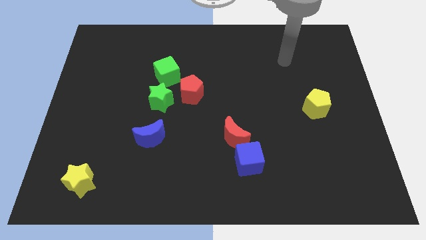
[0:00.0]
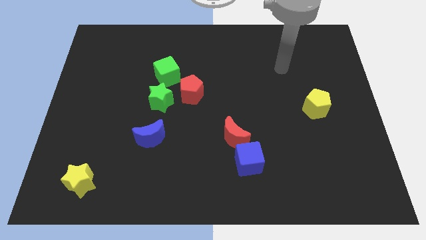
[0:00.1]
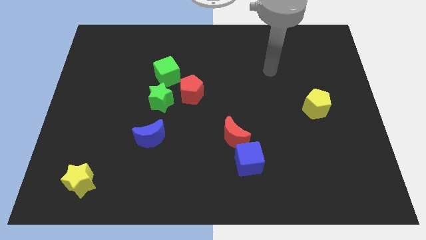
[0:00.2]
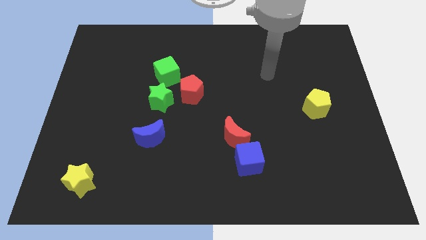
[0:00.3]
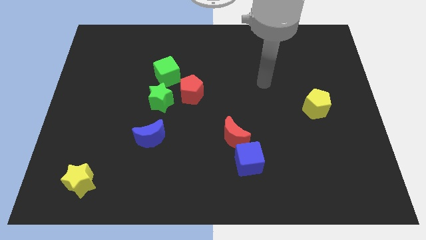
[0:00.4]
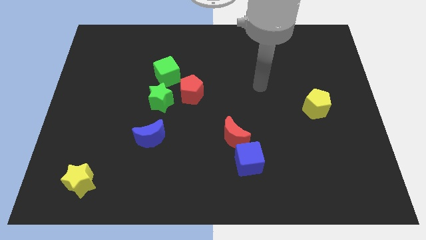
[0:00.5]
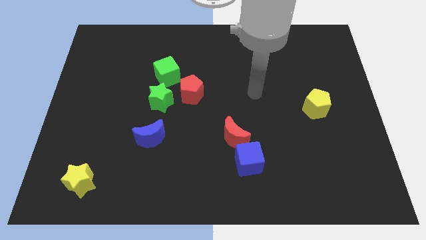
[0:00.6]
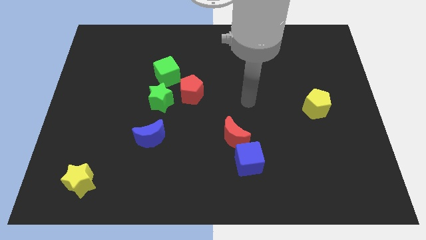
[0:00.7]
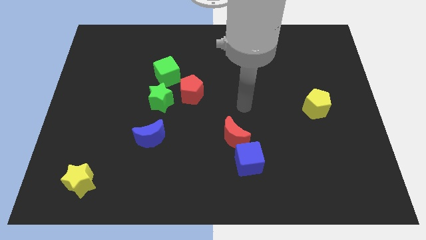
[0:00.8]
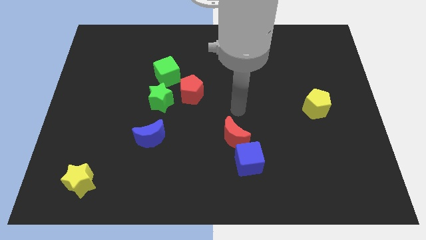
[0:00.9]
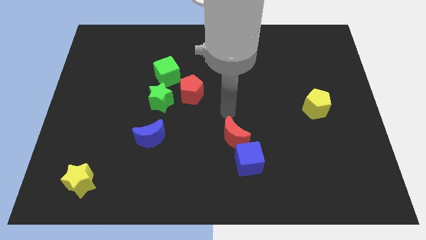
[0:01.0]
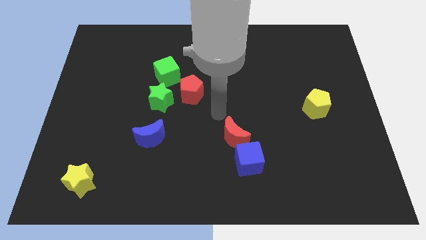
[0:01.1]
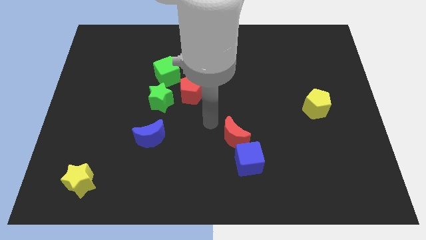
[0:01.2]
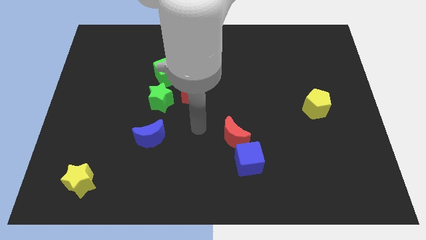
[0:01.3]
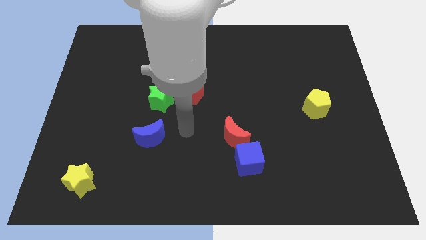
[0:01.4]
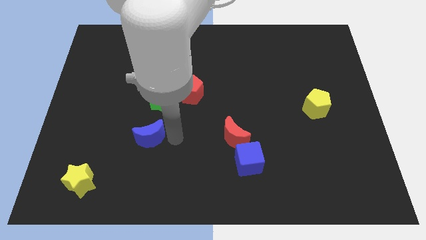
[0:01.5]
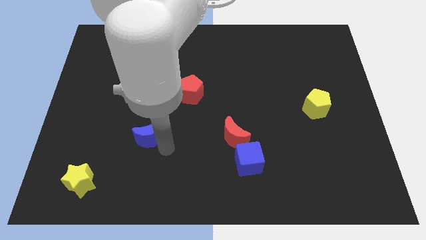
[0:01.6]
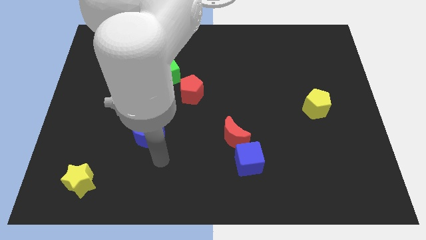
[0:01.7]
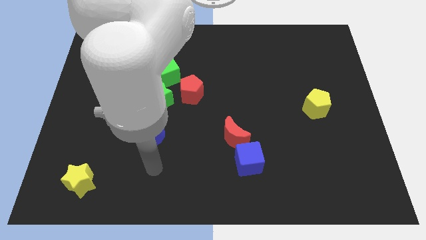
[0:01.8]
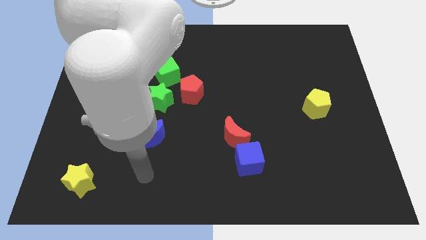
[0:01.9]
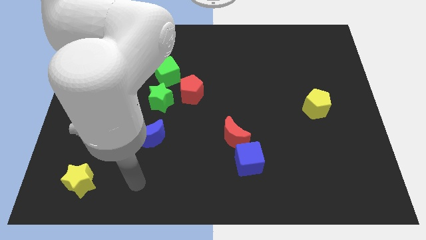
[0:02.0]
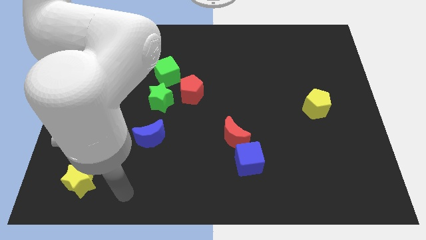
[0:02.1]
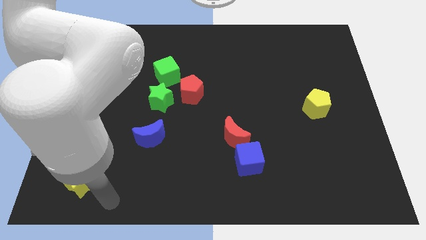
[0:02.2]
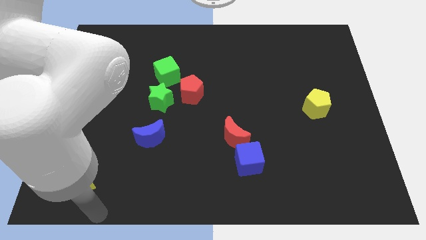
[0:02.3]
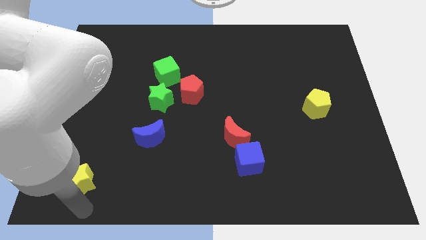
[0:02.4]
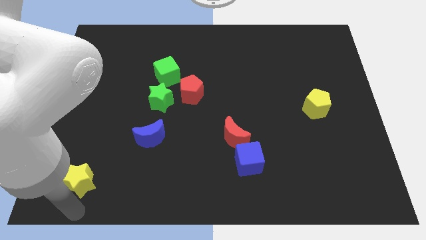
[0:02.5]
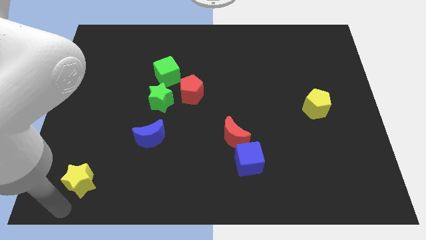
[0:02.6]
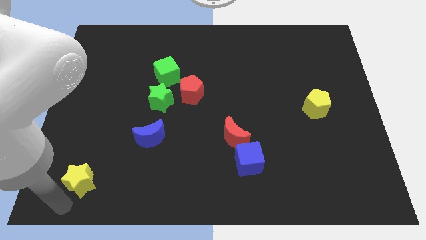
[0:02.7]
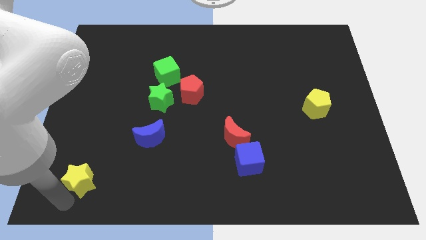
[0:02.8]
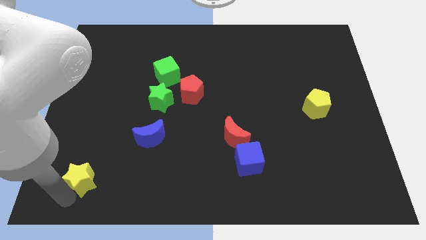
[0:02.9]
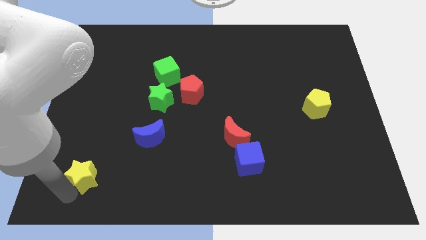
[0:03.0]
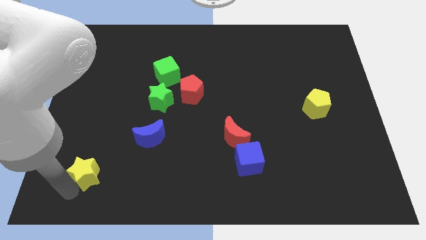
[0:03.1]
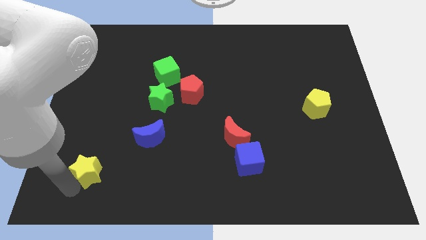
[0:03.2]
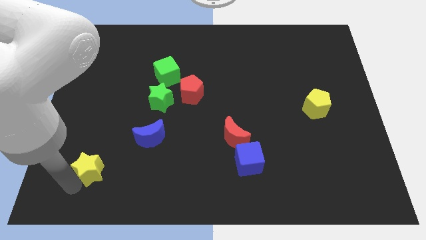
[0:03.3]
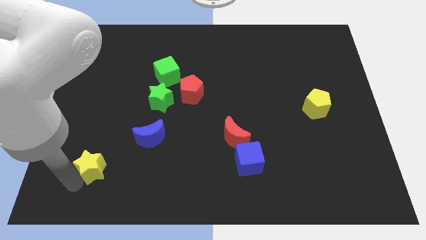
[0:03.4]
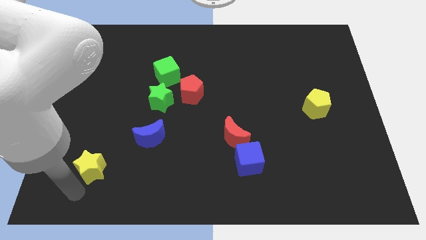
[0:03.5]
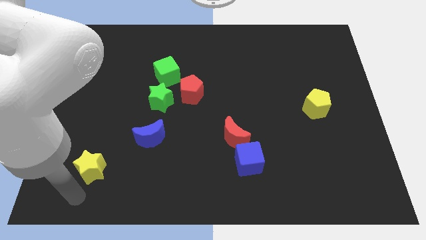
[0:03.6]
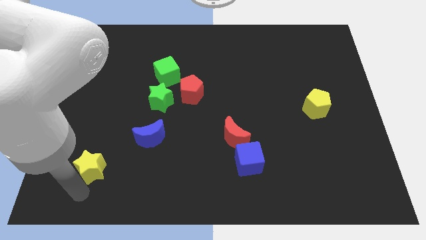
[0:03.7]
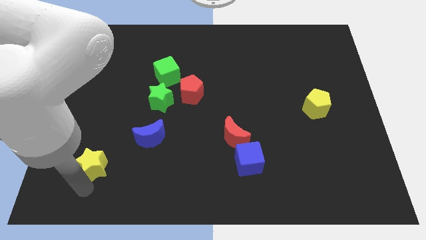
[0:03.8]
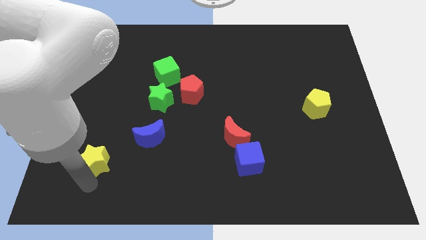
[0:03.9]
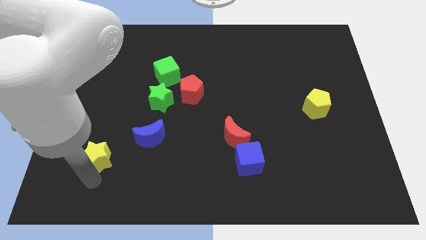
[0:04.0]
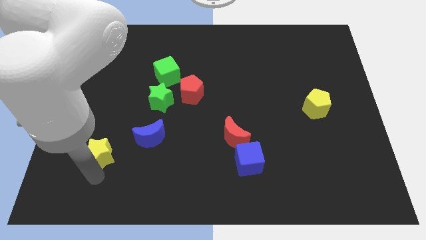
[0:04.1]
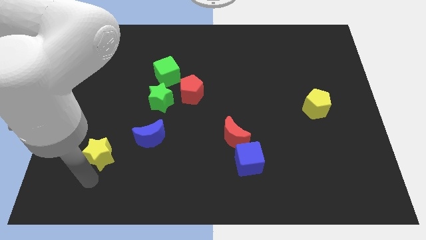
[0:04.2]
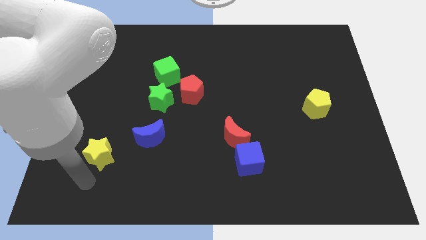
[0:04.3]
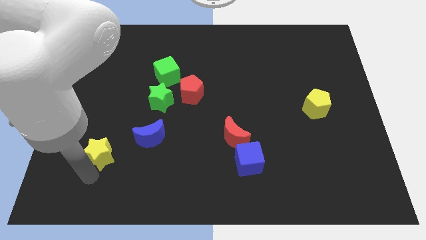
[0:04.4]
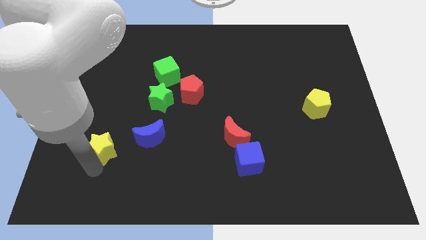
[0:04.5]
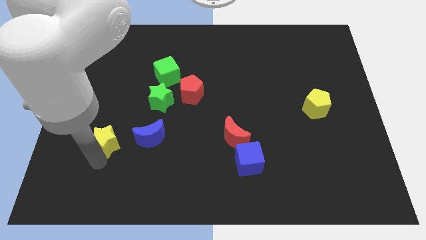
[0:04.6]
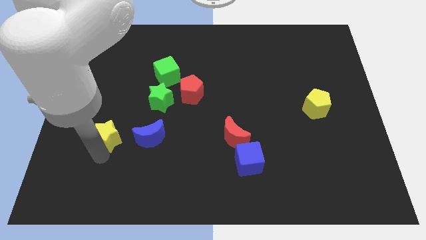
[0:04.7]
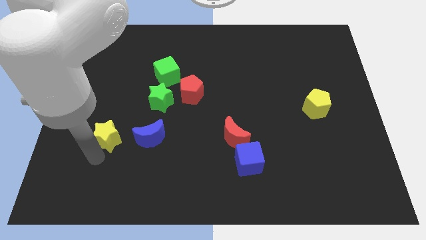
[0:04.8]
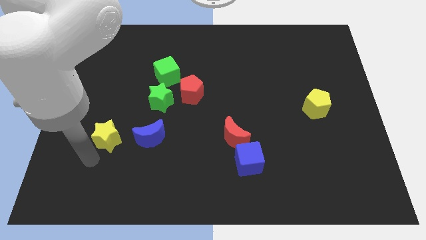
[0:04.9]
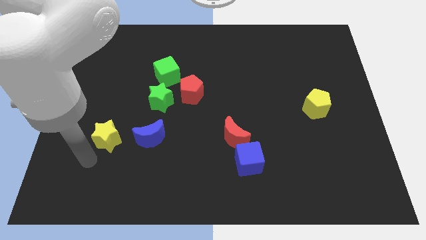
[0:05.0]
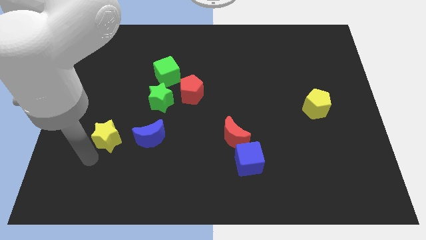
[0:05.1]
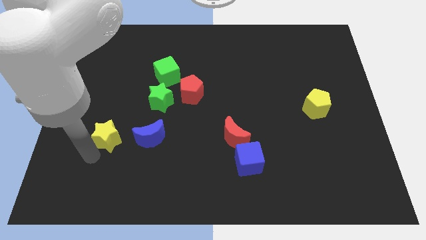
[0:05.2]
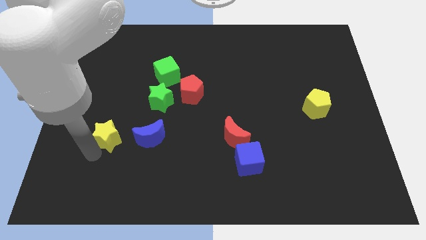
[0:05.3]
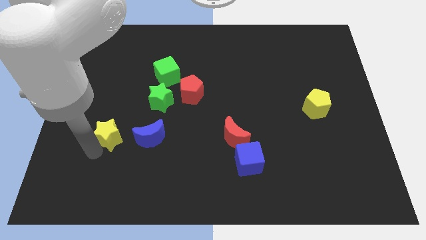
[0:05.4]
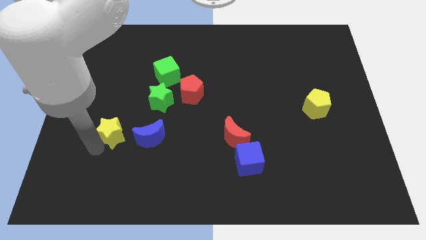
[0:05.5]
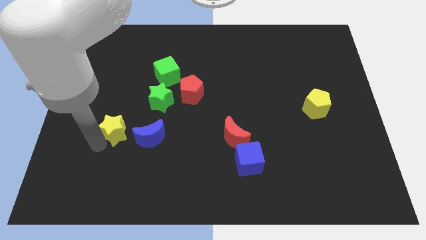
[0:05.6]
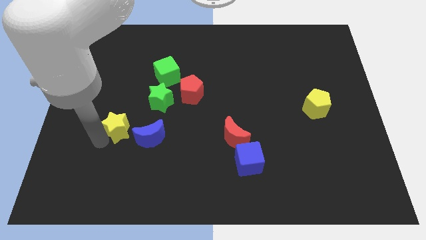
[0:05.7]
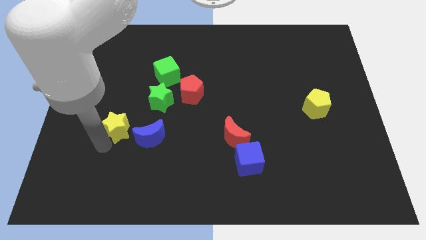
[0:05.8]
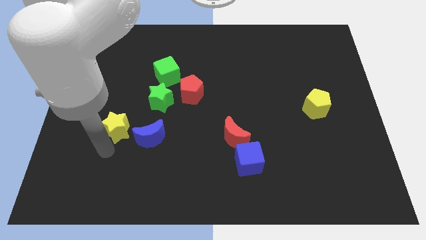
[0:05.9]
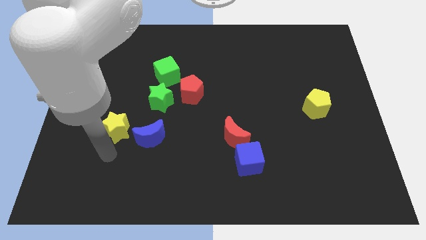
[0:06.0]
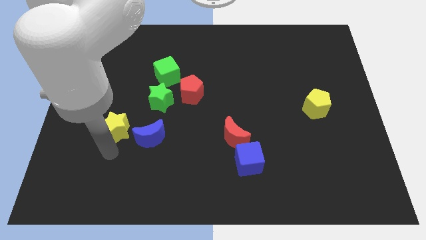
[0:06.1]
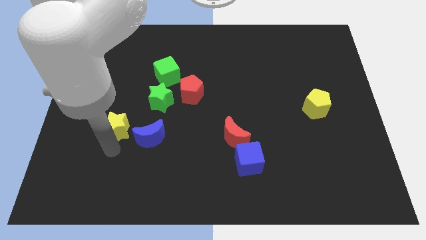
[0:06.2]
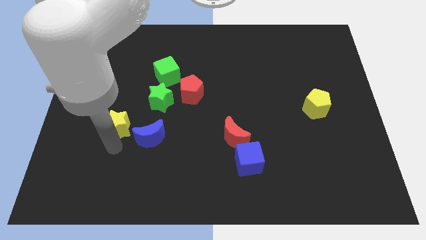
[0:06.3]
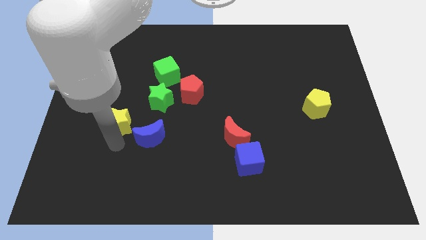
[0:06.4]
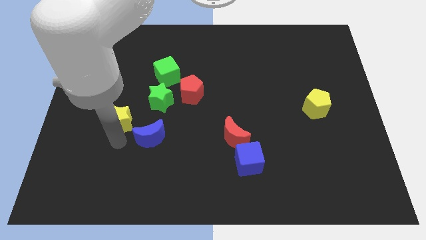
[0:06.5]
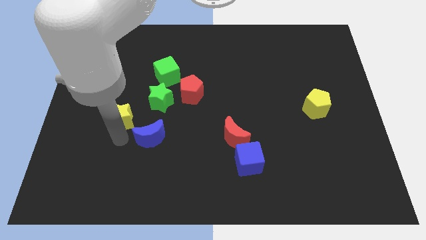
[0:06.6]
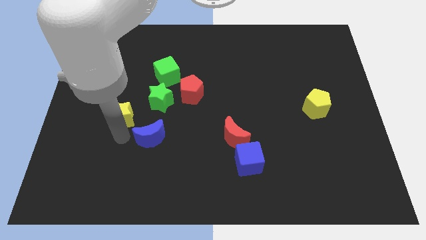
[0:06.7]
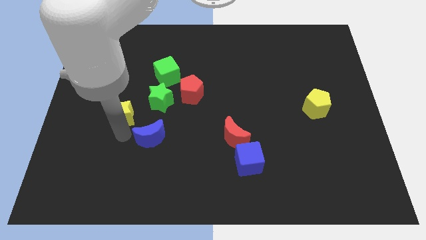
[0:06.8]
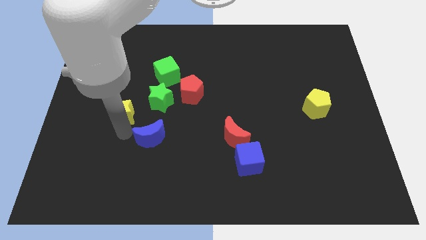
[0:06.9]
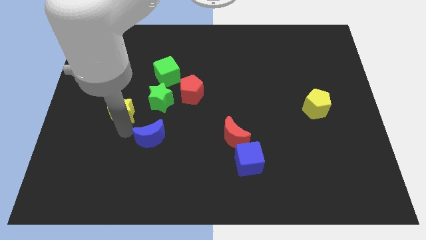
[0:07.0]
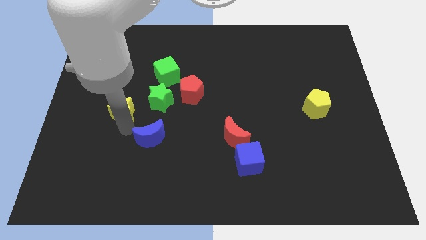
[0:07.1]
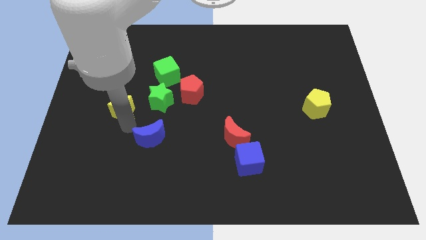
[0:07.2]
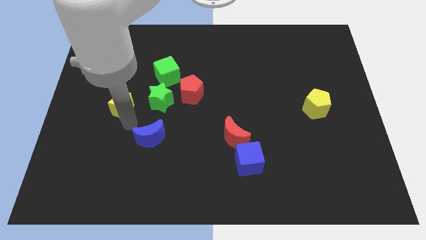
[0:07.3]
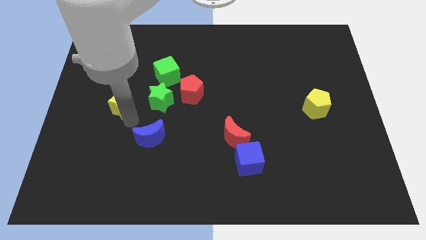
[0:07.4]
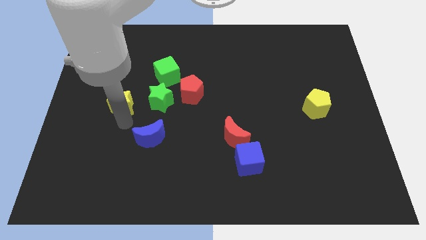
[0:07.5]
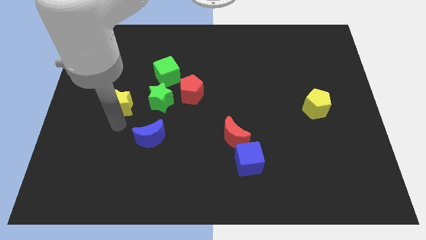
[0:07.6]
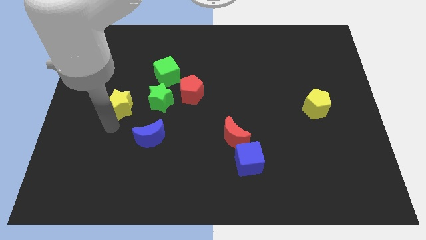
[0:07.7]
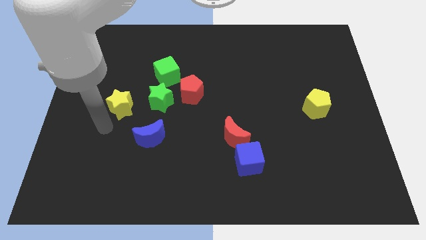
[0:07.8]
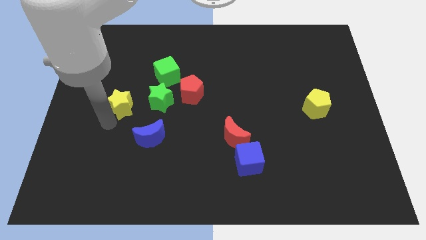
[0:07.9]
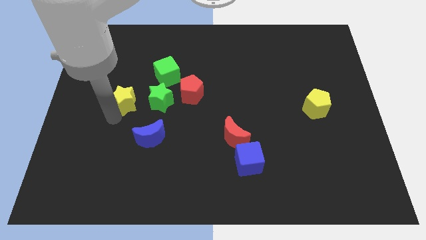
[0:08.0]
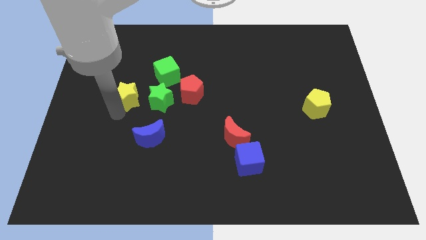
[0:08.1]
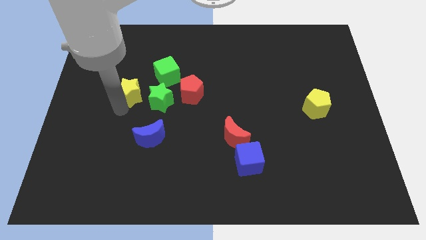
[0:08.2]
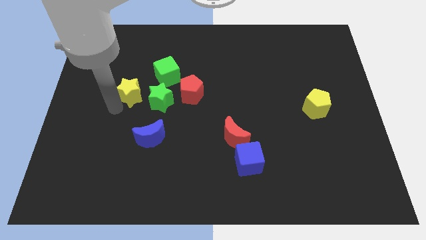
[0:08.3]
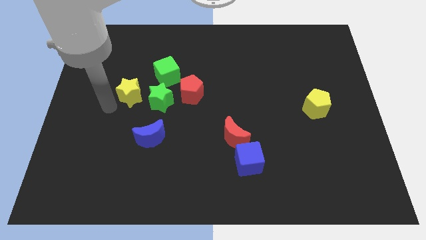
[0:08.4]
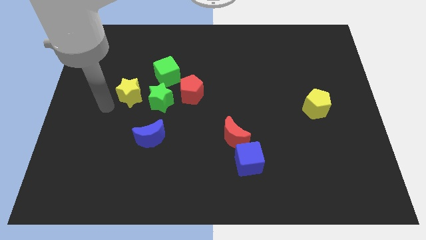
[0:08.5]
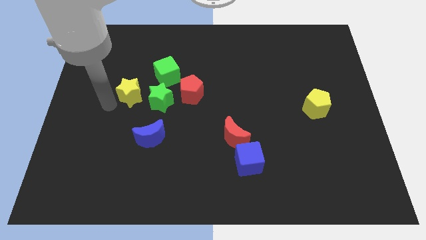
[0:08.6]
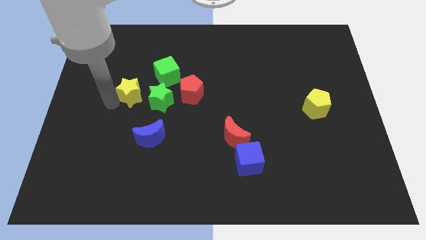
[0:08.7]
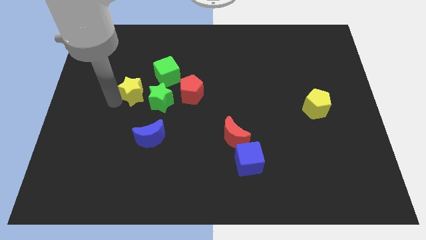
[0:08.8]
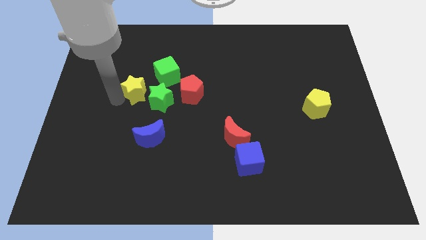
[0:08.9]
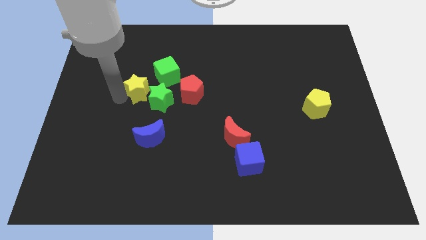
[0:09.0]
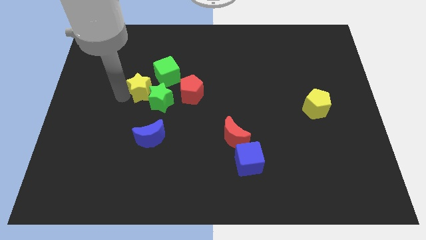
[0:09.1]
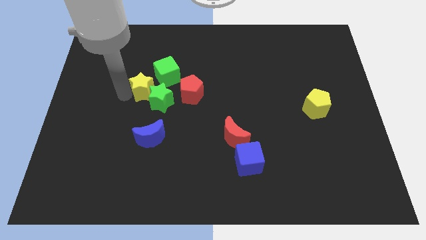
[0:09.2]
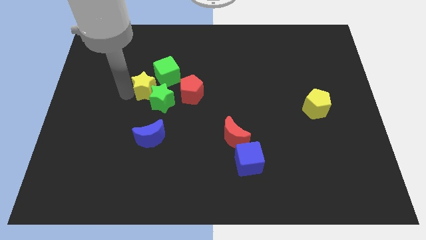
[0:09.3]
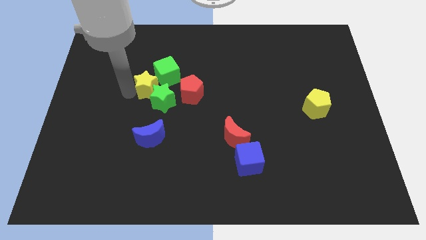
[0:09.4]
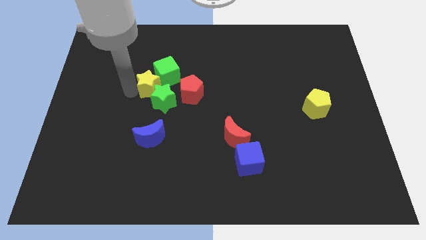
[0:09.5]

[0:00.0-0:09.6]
push the yellow star next to the green cube
